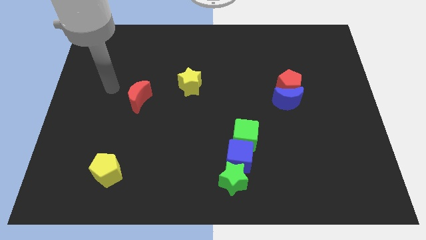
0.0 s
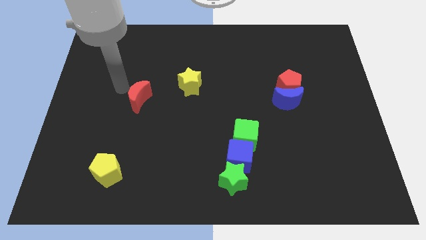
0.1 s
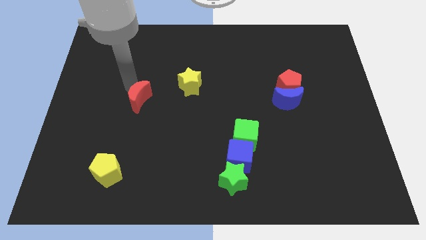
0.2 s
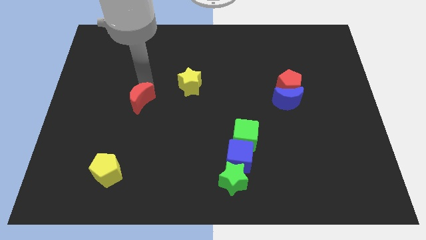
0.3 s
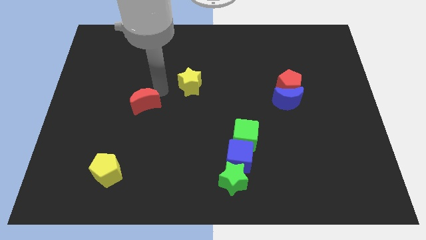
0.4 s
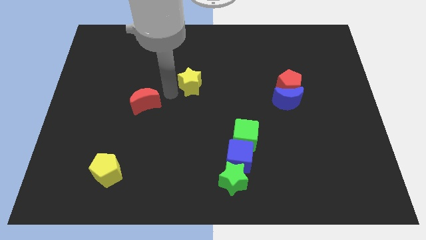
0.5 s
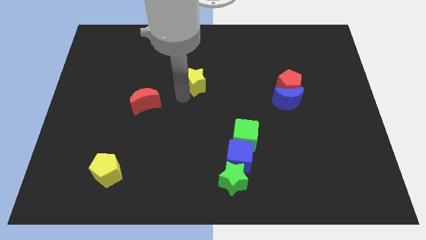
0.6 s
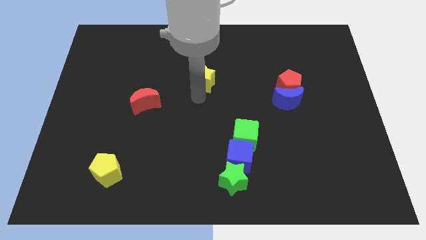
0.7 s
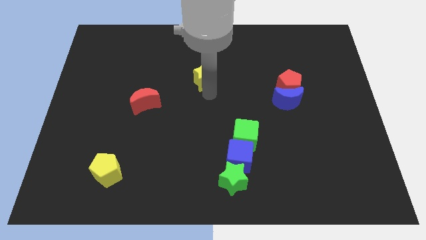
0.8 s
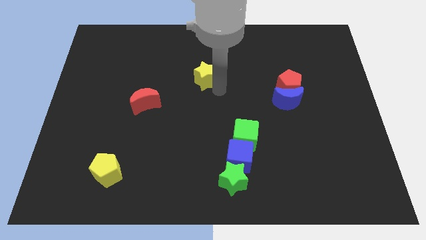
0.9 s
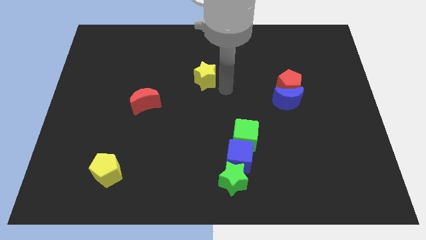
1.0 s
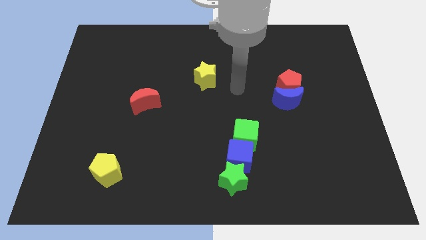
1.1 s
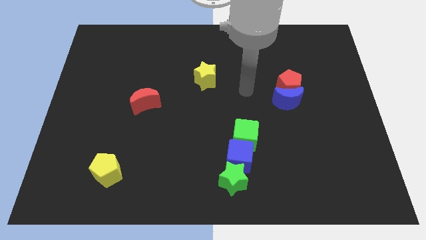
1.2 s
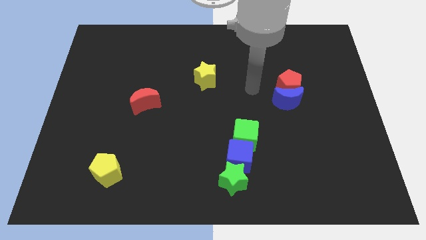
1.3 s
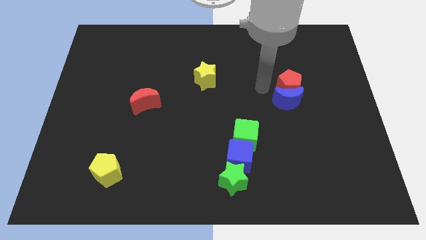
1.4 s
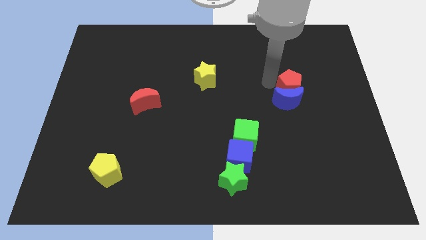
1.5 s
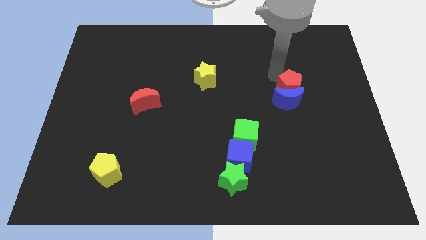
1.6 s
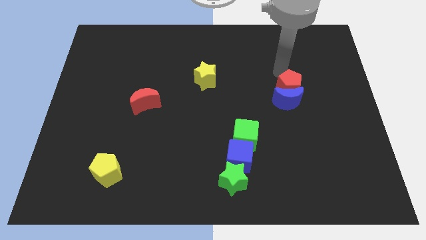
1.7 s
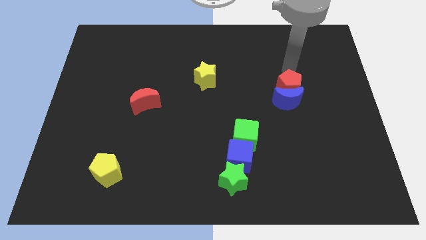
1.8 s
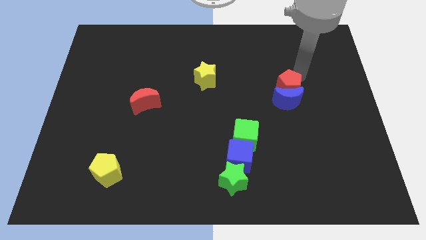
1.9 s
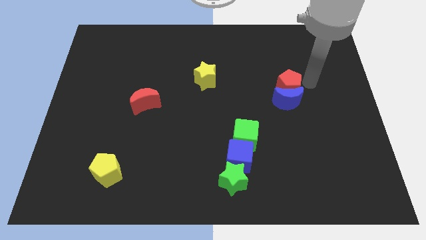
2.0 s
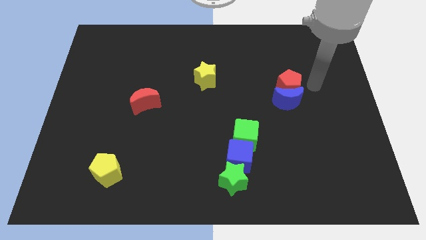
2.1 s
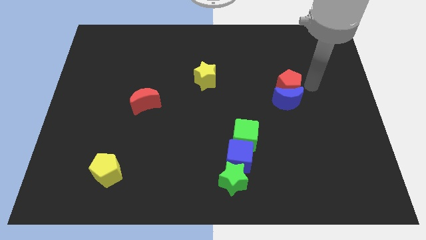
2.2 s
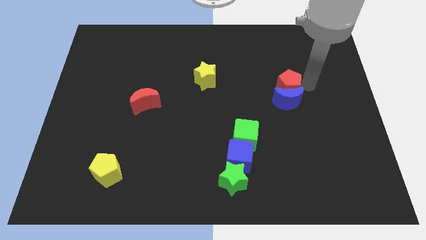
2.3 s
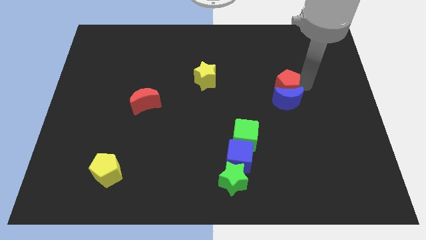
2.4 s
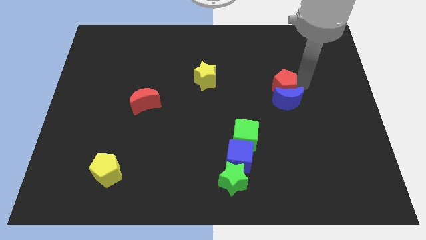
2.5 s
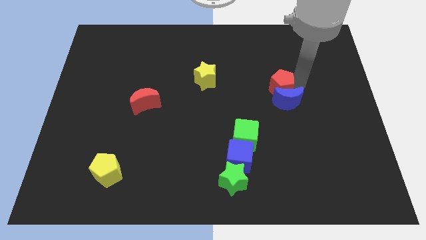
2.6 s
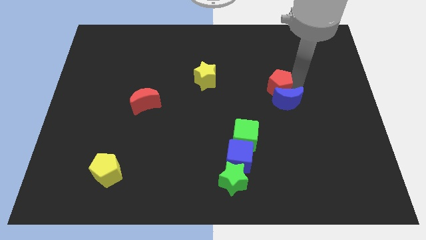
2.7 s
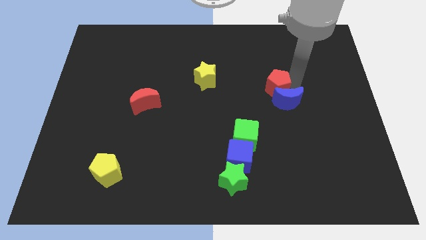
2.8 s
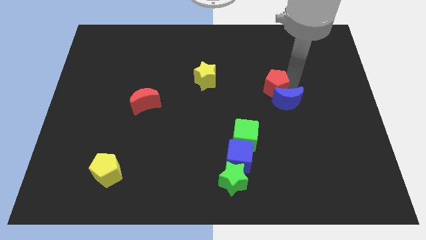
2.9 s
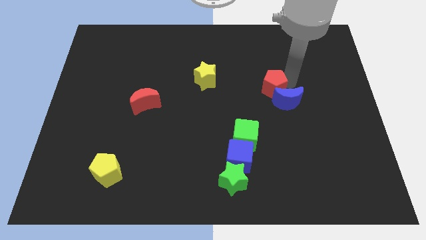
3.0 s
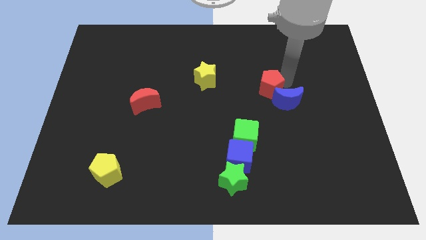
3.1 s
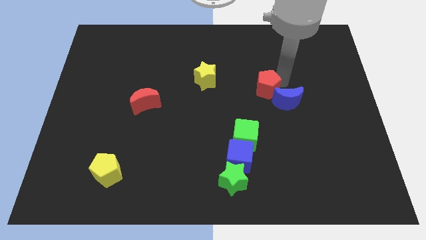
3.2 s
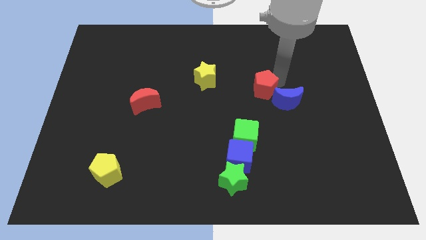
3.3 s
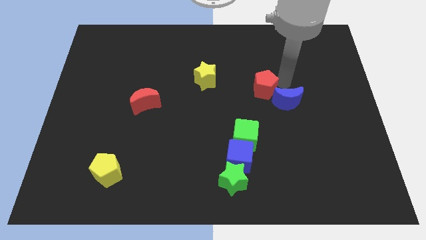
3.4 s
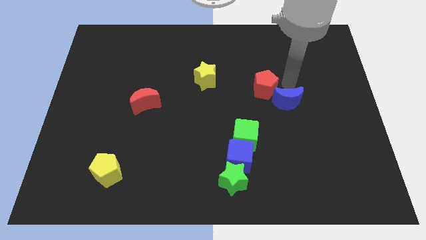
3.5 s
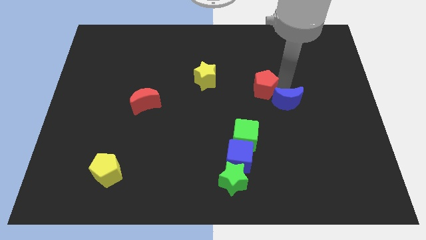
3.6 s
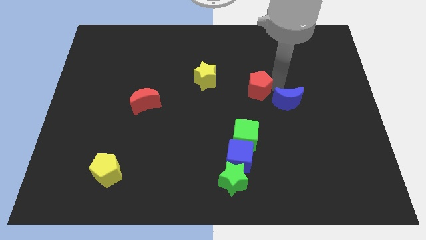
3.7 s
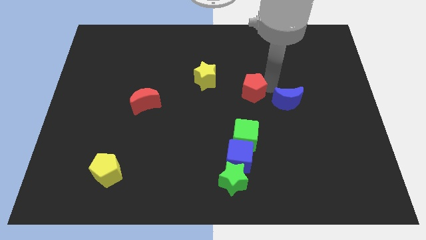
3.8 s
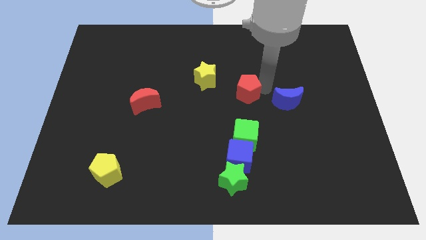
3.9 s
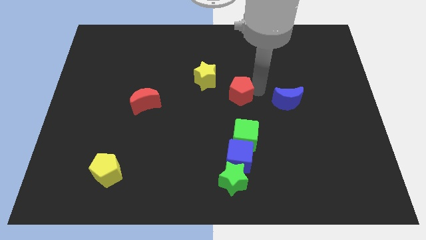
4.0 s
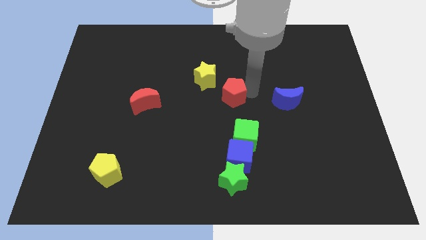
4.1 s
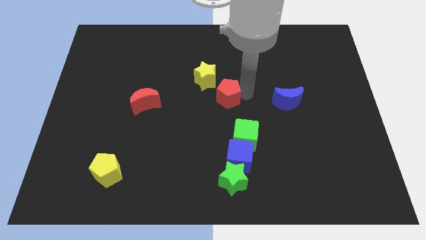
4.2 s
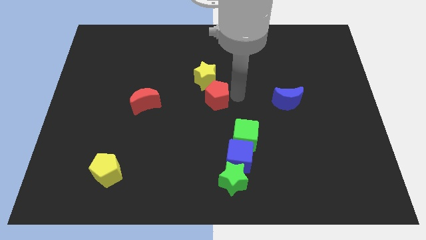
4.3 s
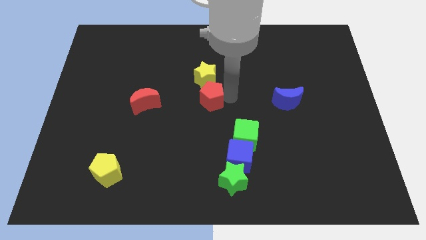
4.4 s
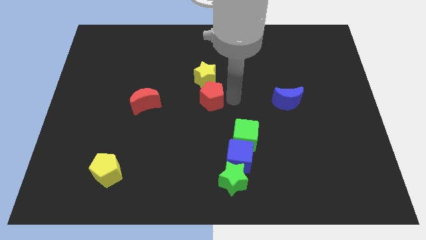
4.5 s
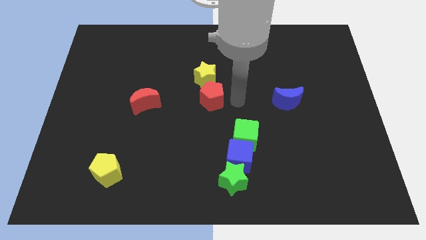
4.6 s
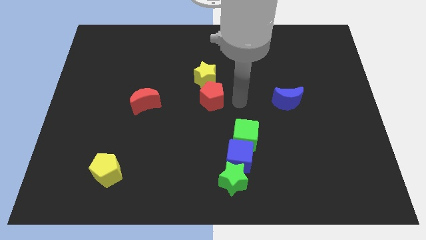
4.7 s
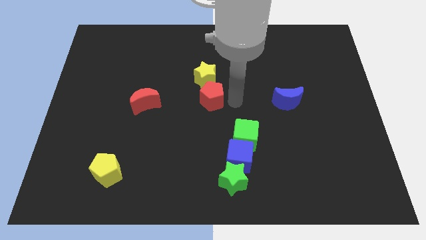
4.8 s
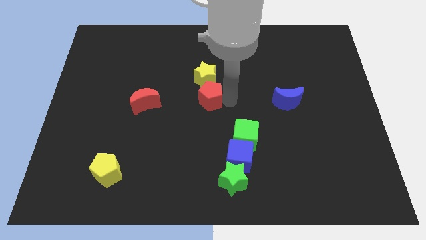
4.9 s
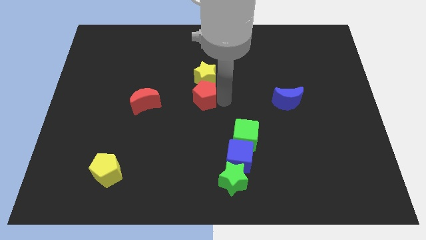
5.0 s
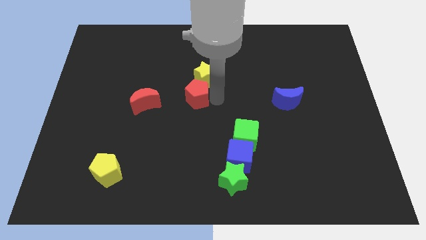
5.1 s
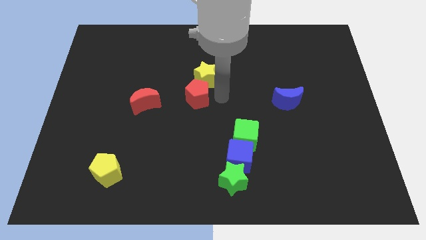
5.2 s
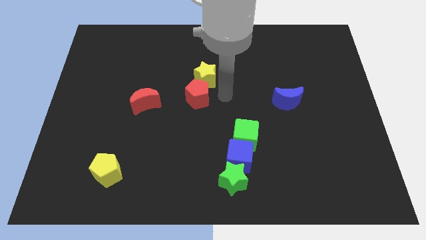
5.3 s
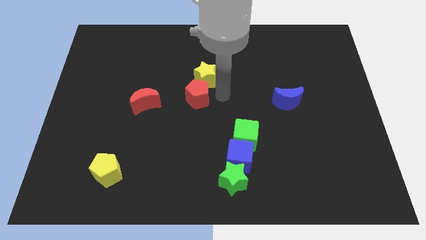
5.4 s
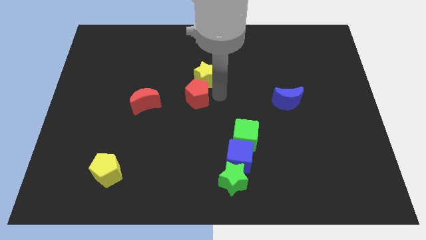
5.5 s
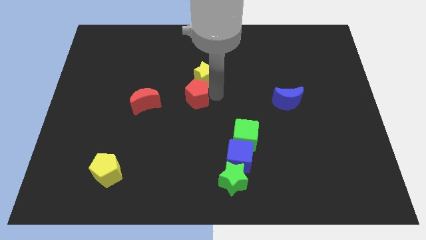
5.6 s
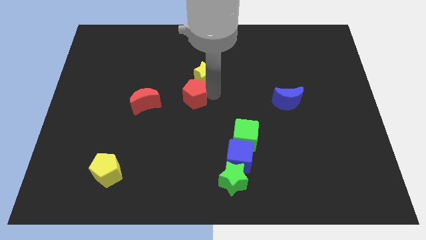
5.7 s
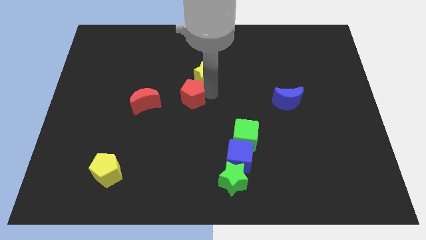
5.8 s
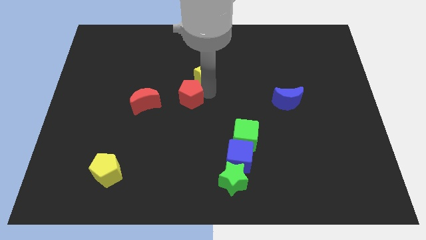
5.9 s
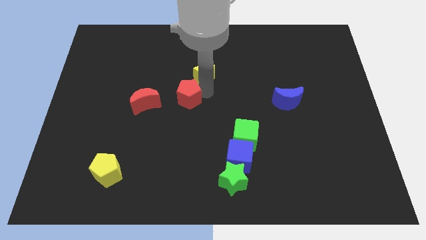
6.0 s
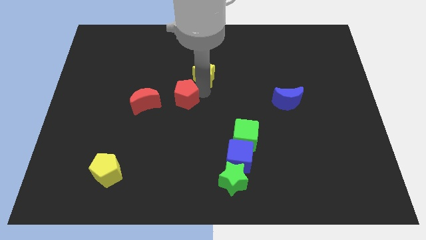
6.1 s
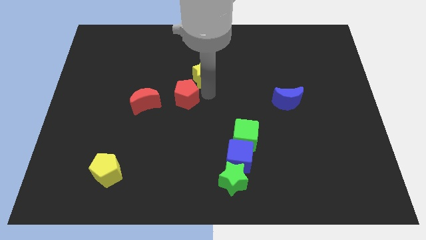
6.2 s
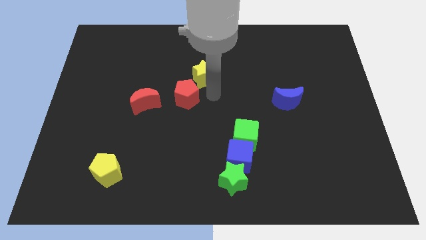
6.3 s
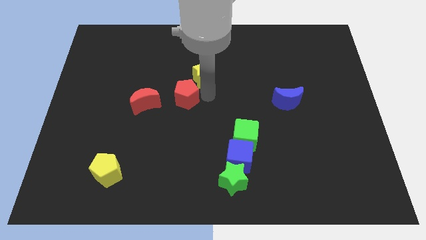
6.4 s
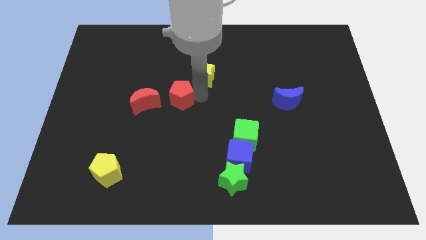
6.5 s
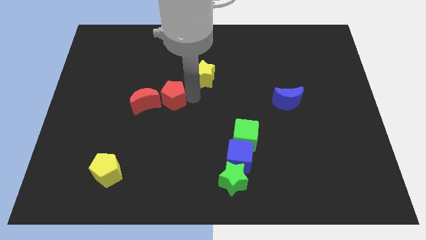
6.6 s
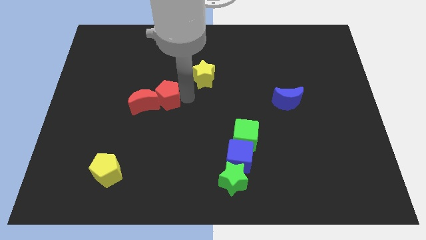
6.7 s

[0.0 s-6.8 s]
slide the red pentagon to the red moon
